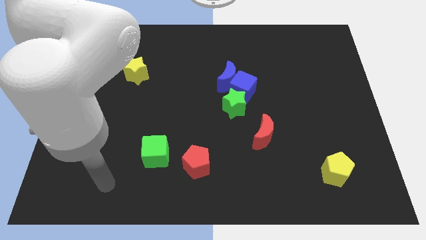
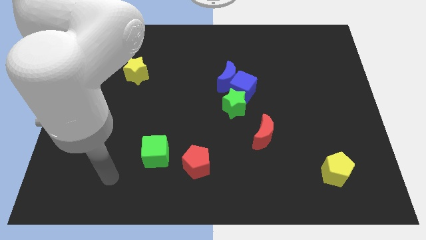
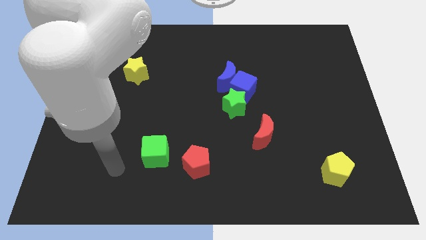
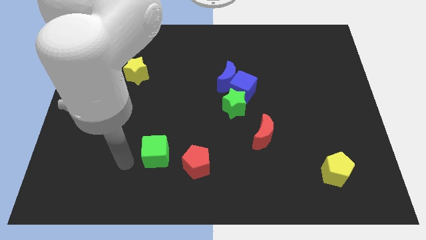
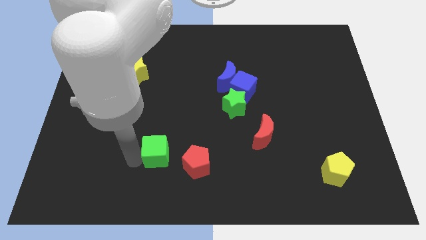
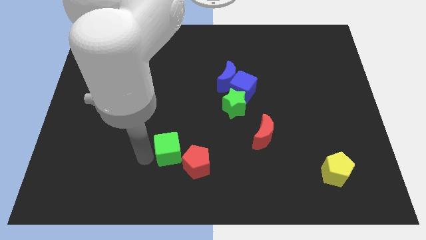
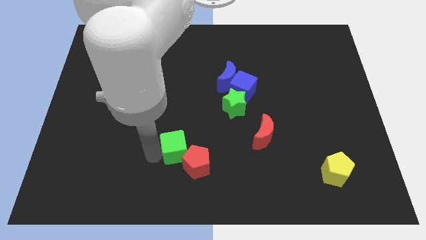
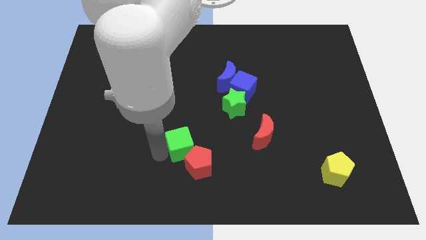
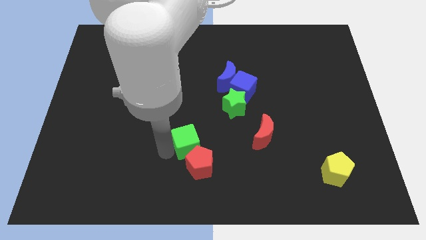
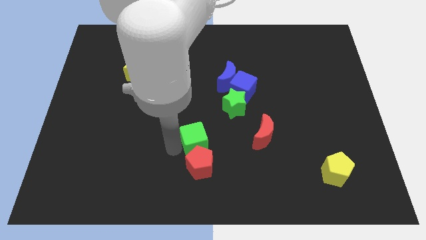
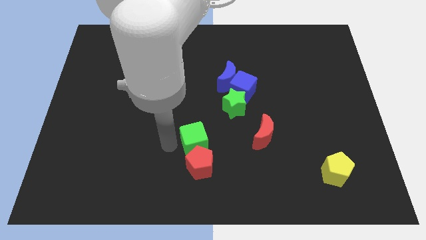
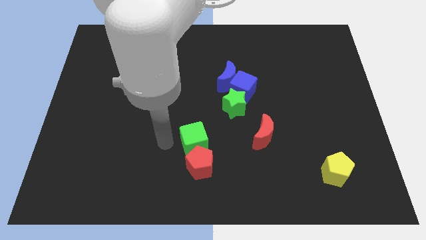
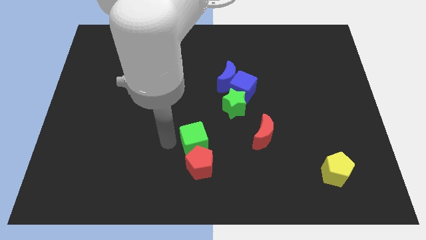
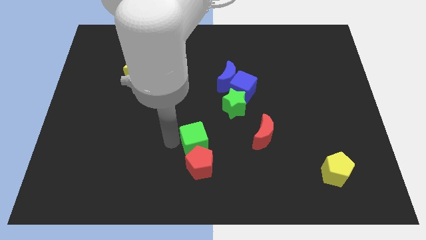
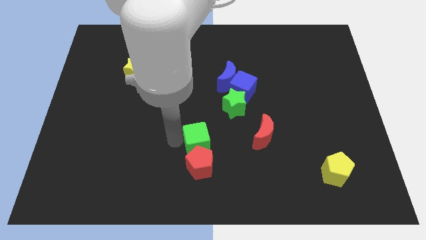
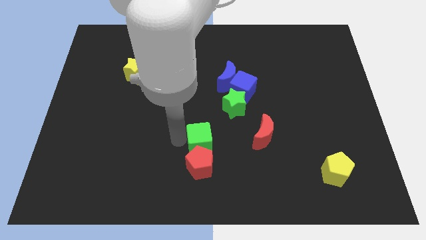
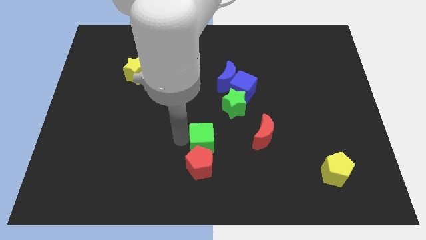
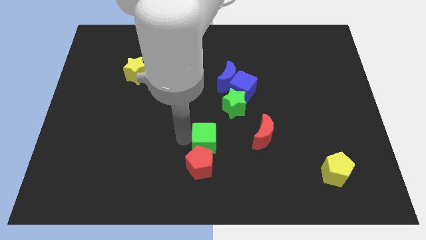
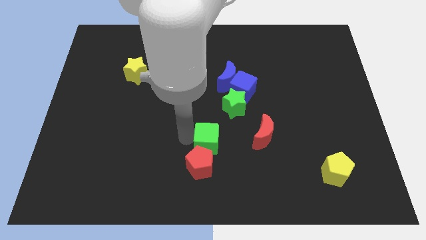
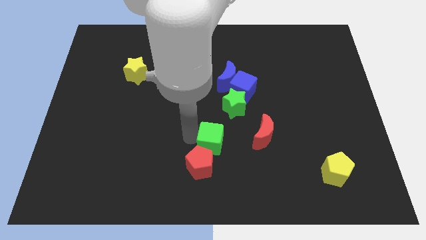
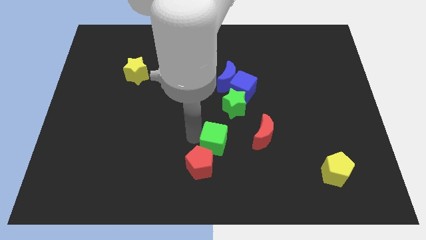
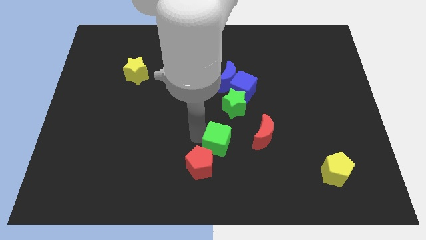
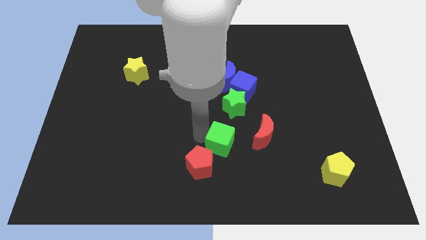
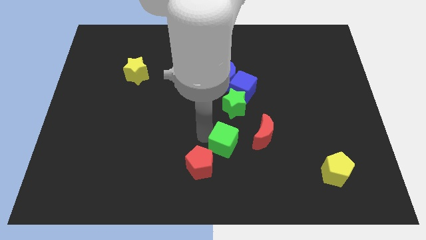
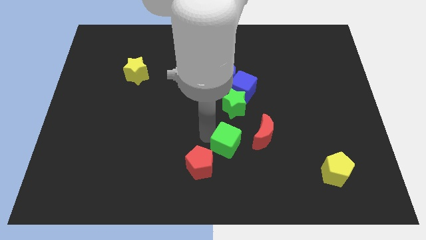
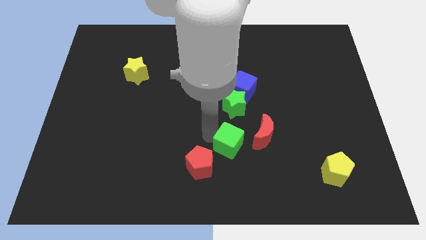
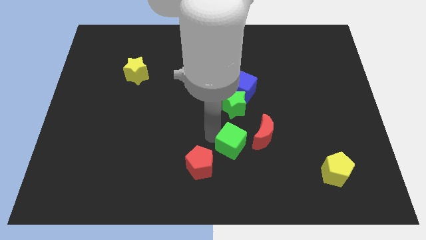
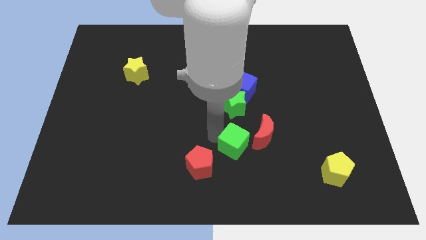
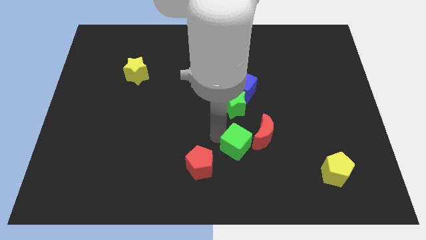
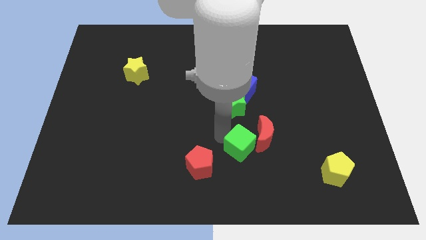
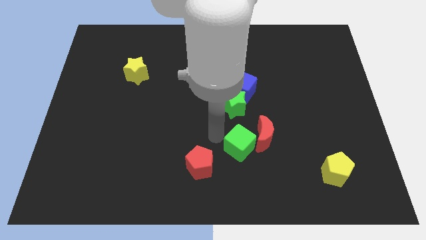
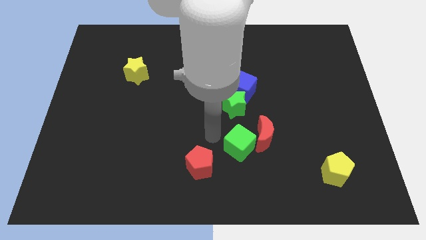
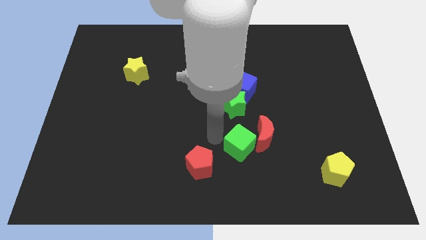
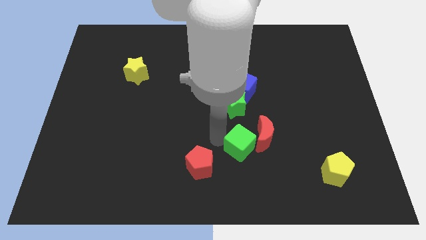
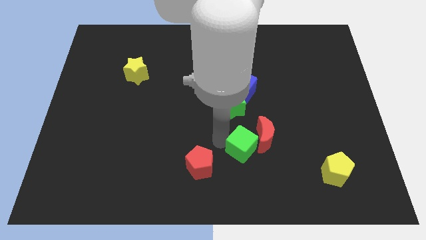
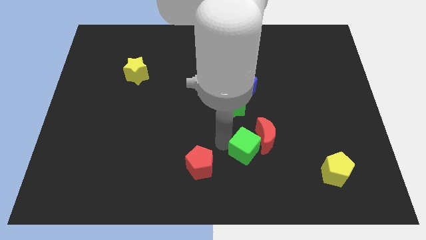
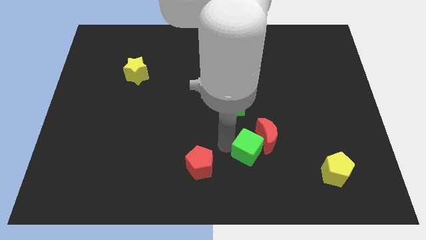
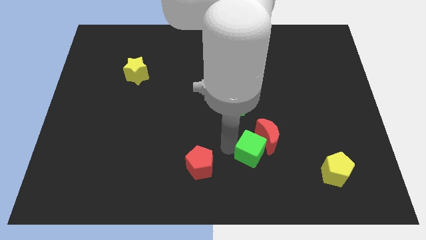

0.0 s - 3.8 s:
slide the green cube to the right

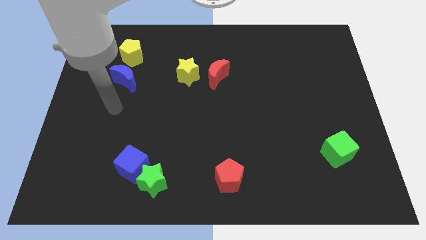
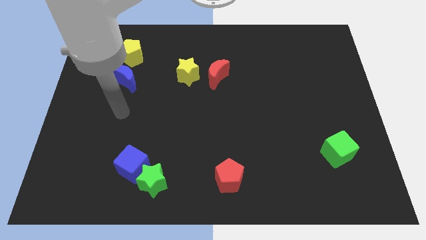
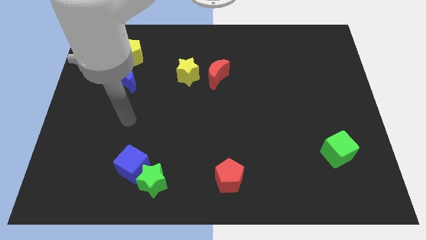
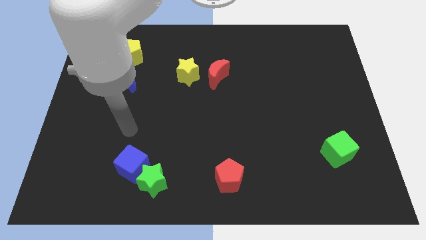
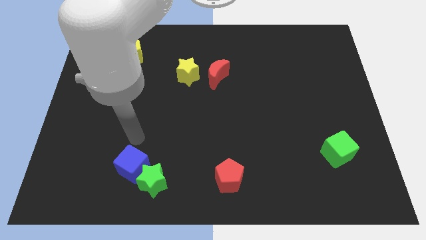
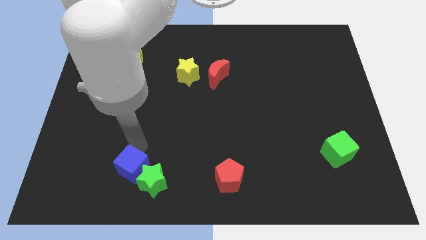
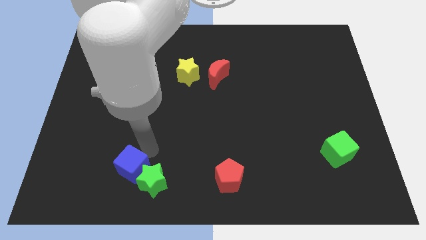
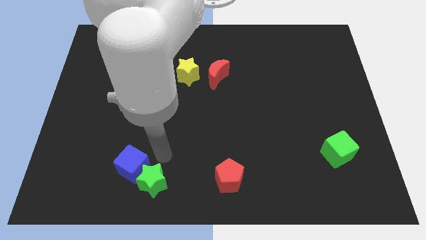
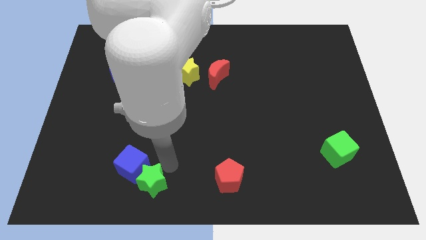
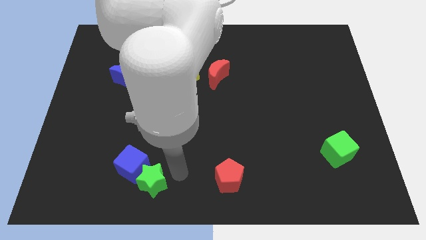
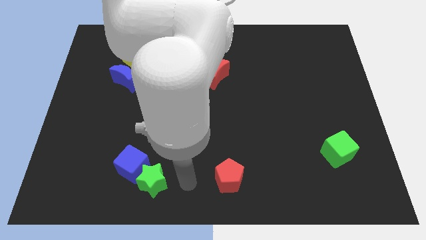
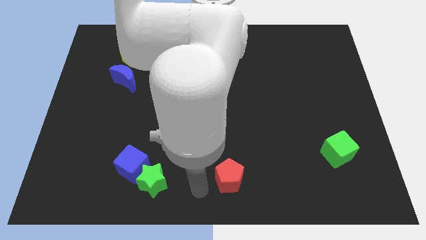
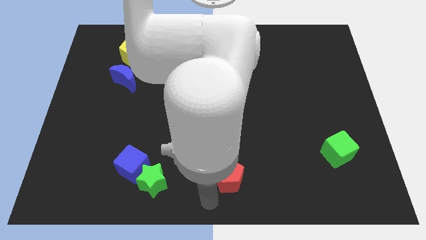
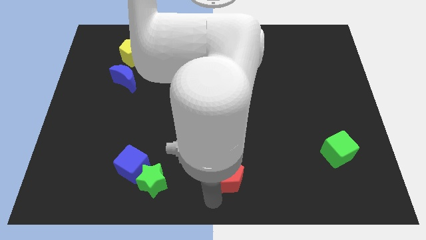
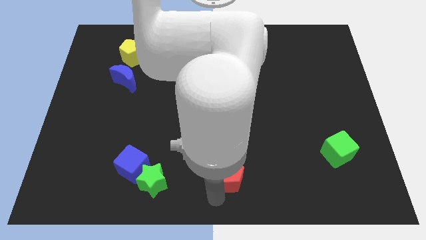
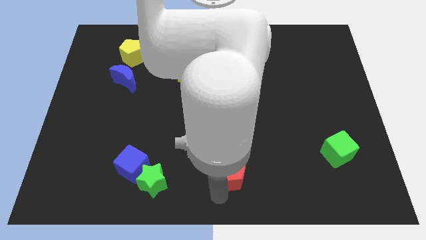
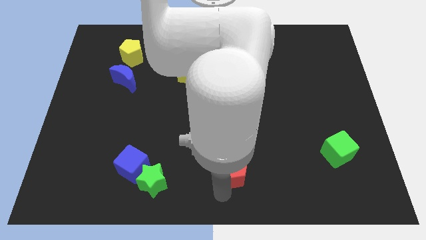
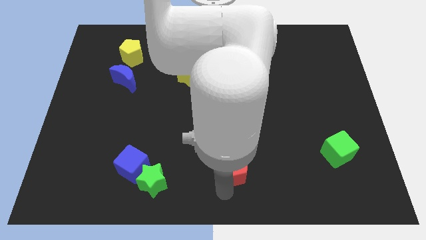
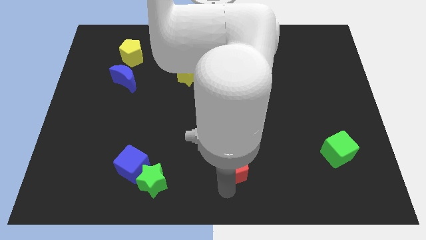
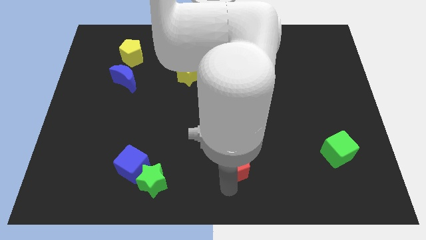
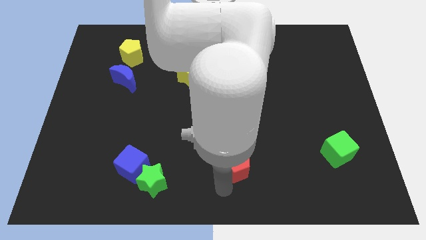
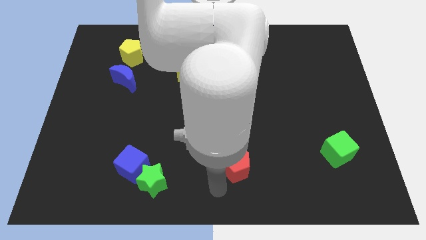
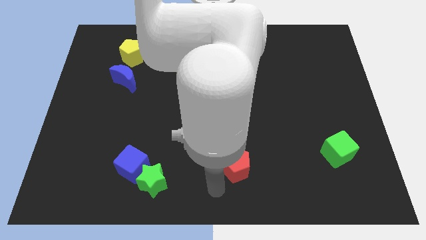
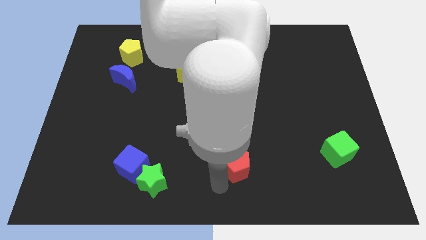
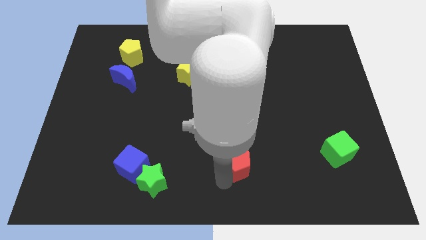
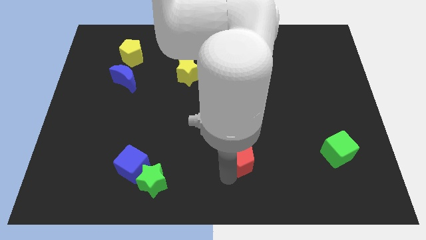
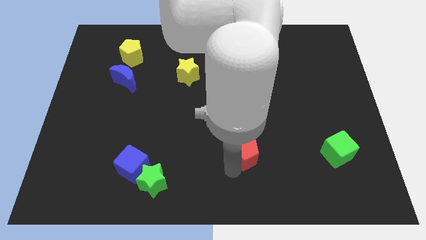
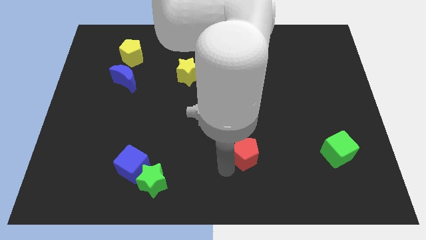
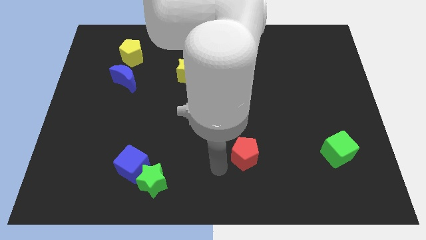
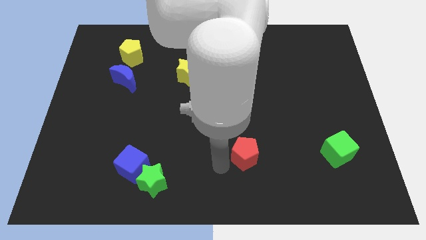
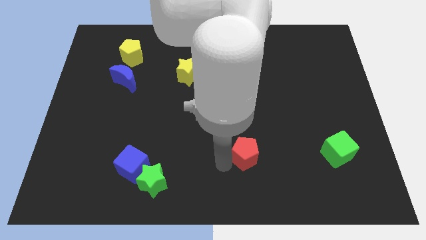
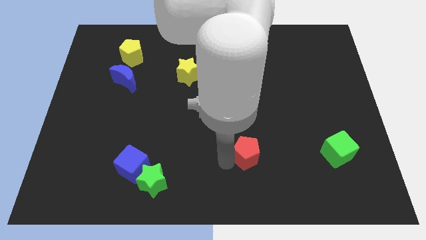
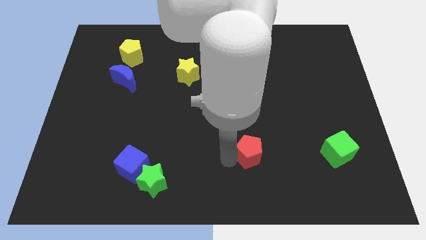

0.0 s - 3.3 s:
slide the red pentagon a bit up and to the right

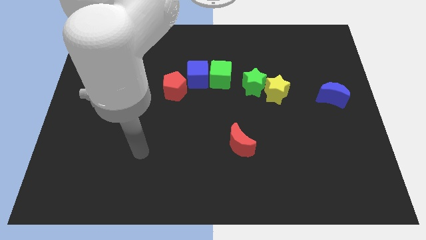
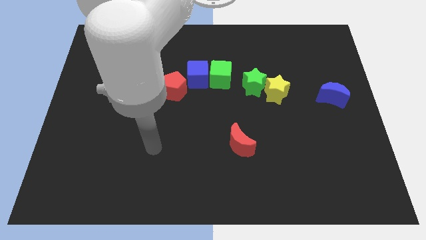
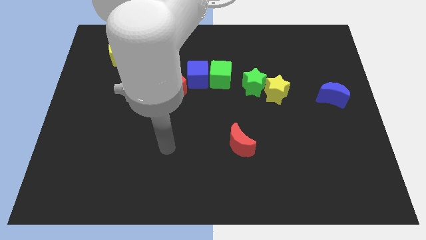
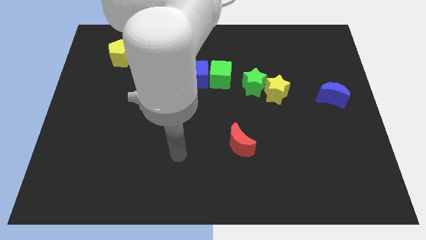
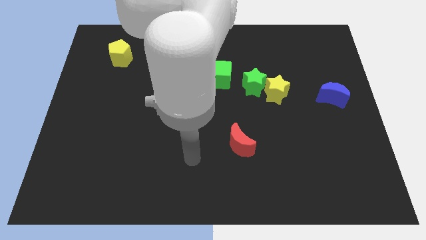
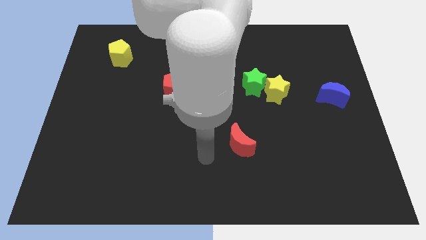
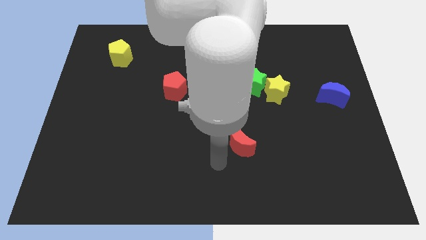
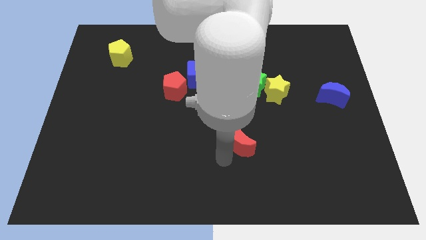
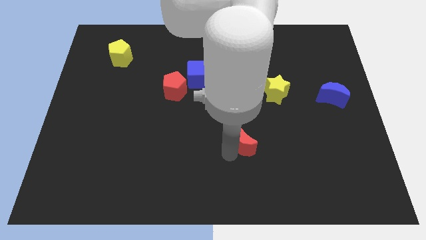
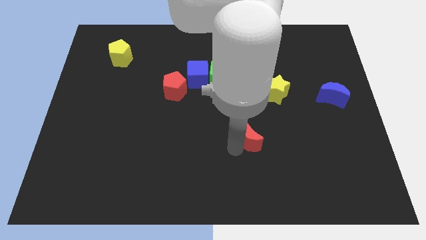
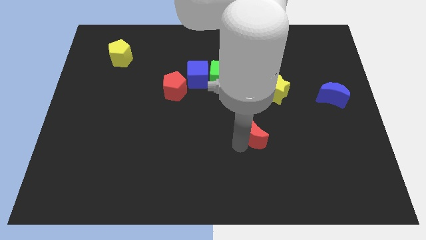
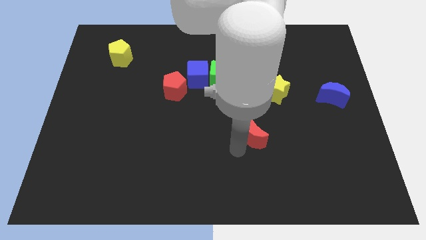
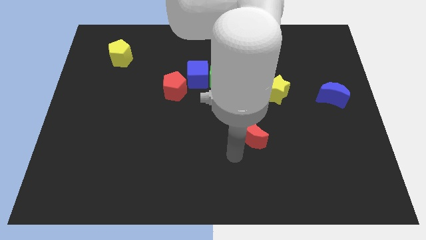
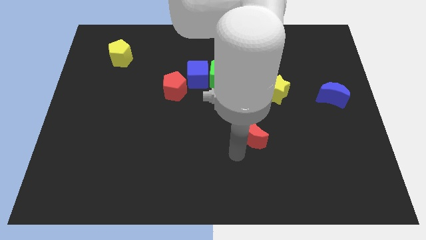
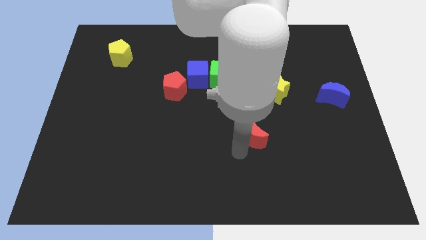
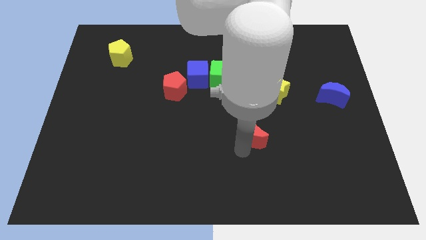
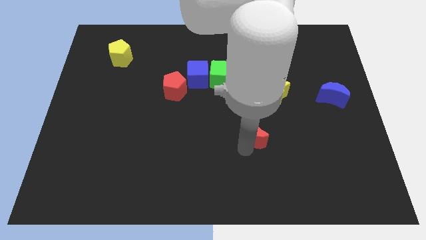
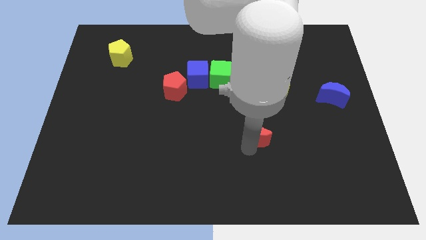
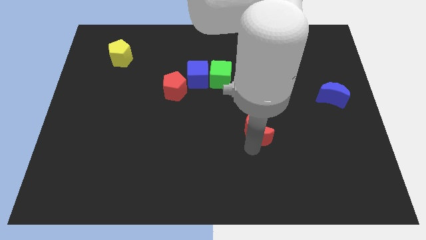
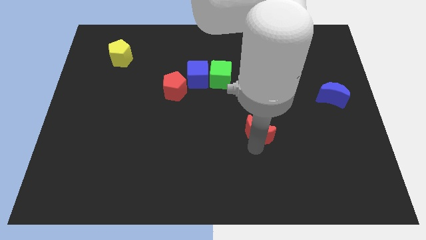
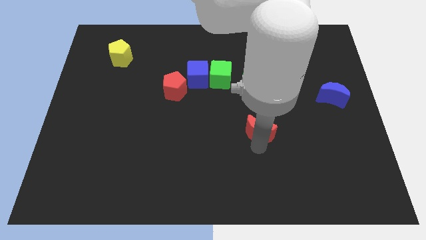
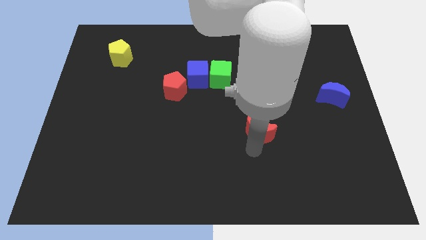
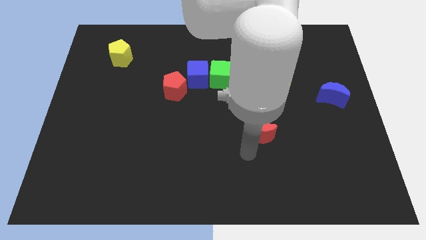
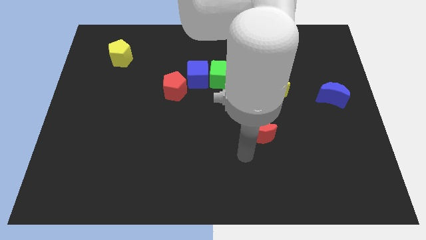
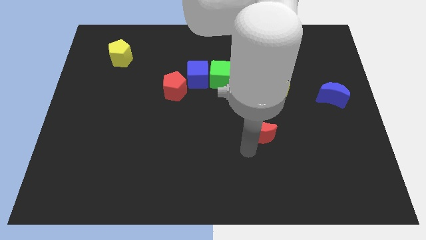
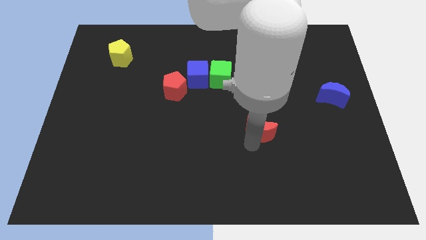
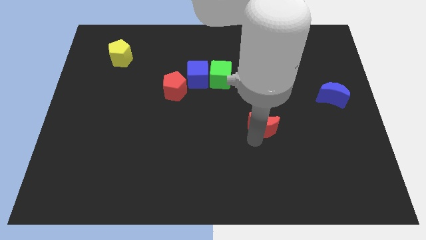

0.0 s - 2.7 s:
slightly move the red moon up and then to the right
